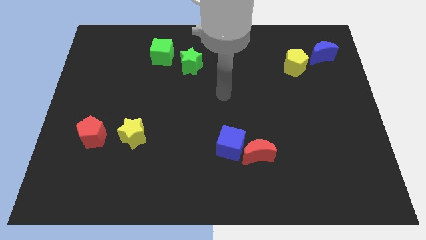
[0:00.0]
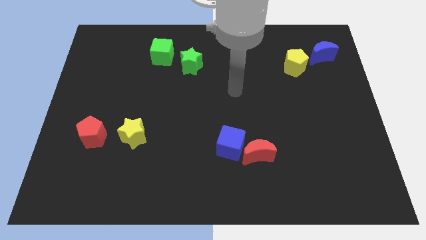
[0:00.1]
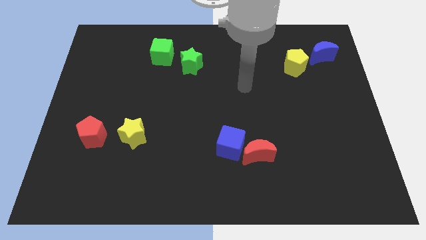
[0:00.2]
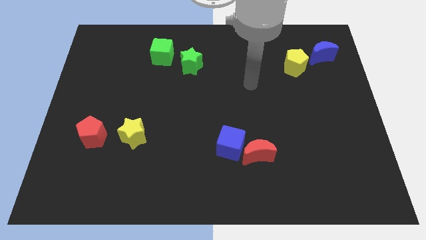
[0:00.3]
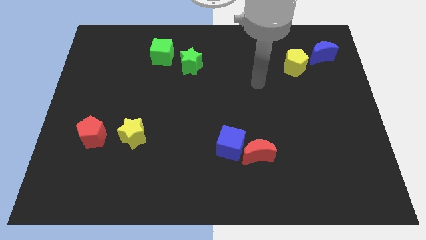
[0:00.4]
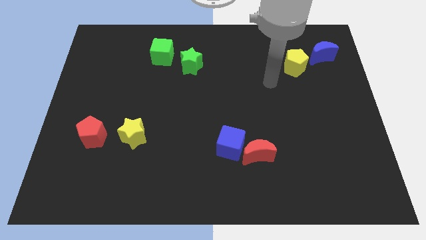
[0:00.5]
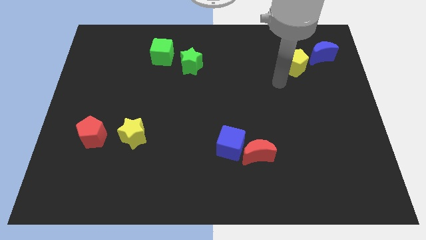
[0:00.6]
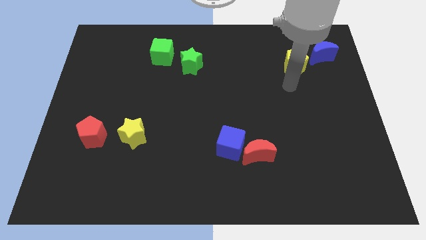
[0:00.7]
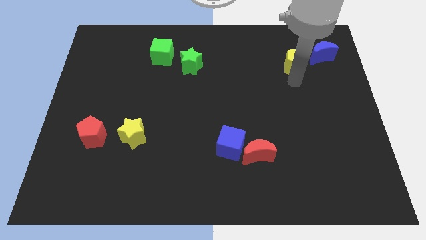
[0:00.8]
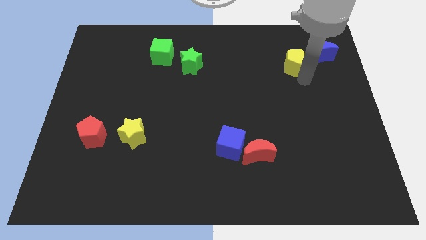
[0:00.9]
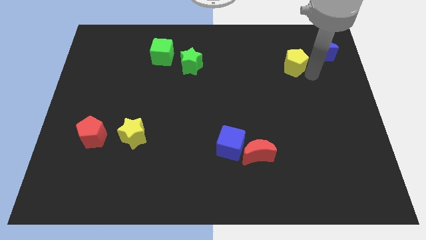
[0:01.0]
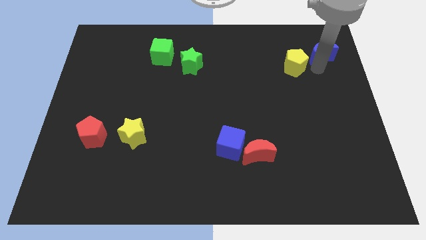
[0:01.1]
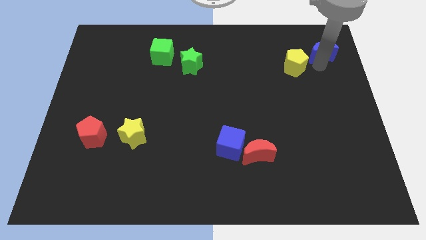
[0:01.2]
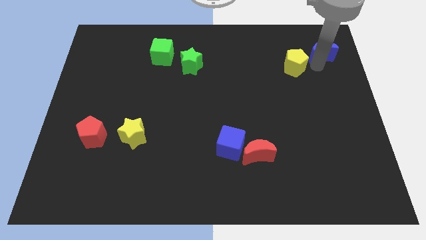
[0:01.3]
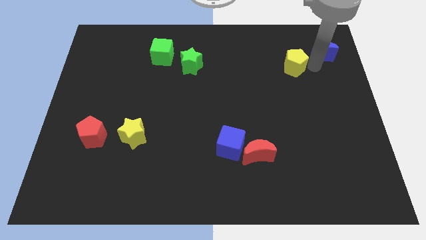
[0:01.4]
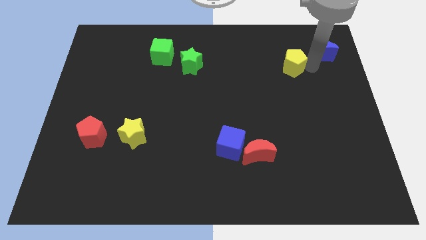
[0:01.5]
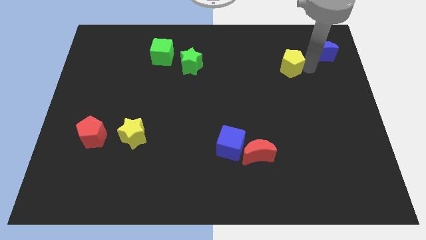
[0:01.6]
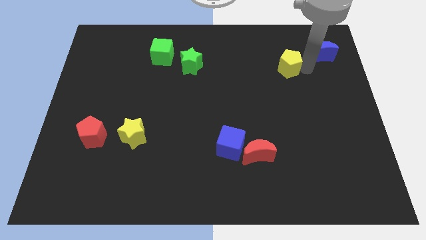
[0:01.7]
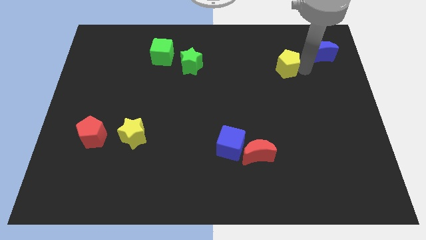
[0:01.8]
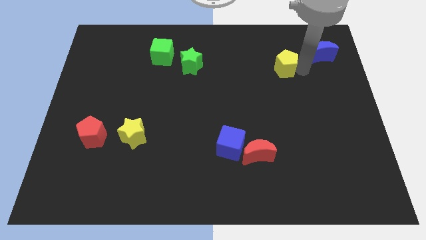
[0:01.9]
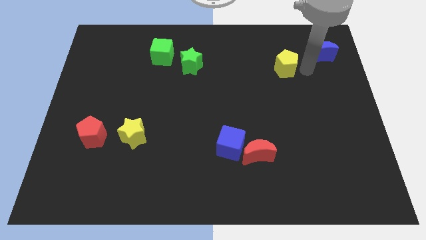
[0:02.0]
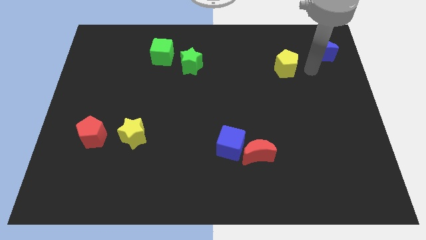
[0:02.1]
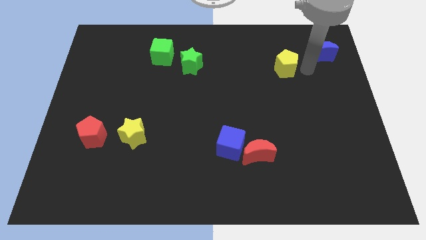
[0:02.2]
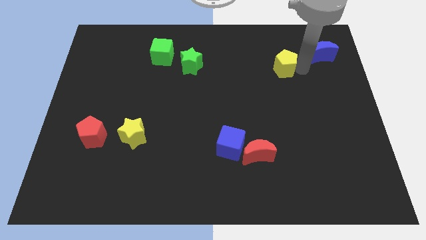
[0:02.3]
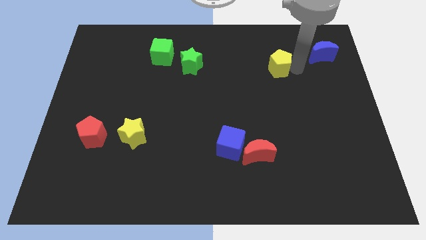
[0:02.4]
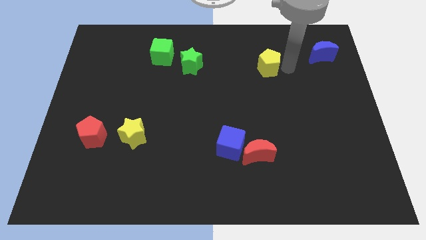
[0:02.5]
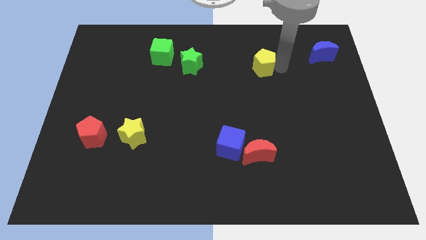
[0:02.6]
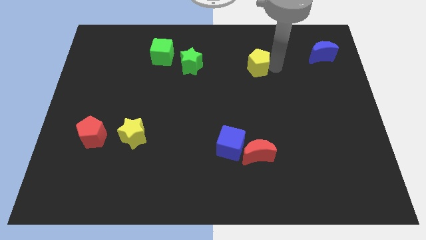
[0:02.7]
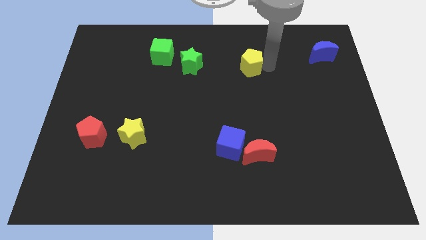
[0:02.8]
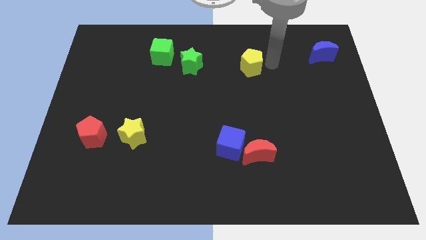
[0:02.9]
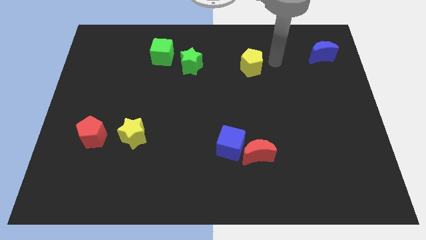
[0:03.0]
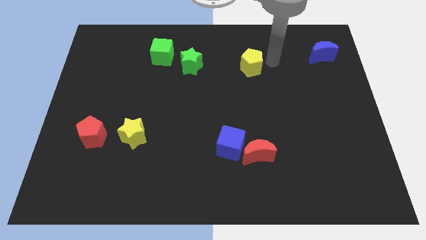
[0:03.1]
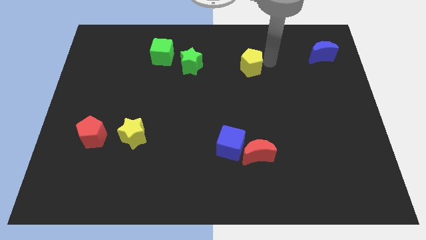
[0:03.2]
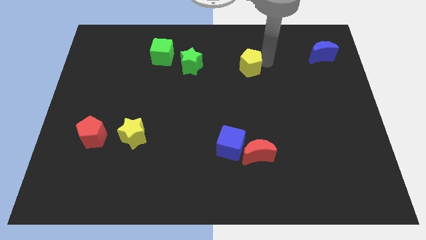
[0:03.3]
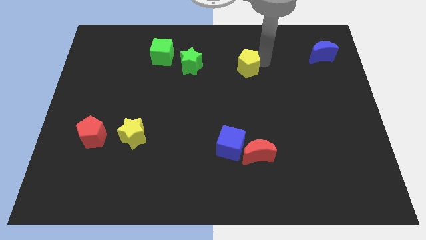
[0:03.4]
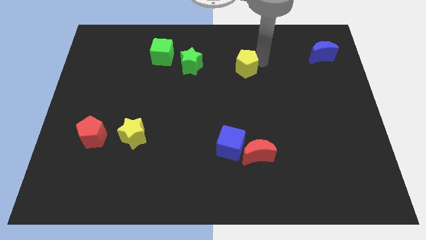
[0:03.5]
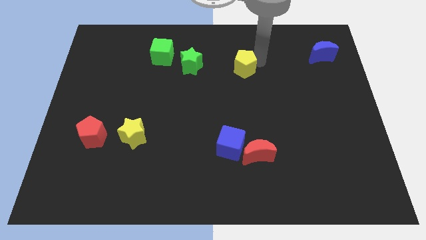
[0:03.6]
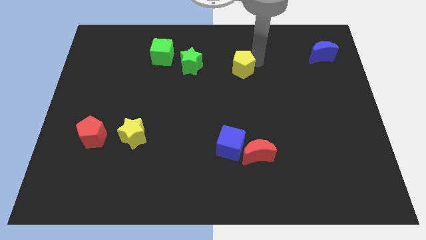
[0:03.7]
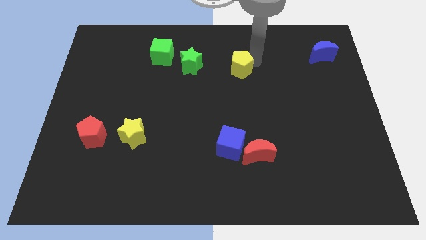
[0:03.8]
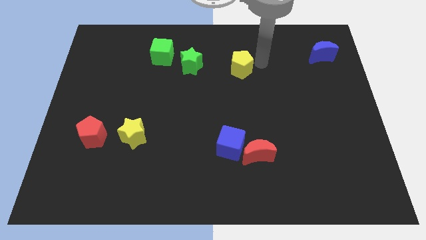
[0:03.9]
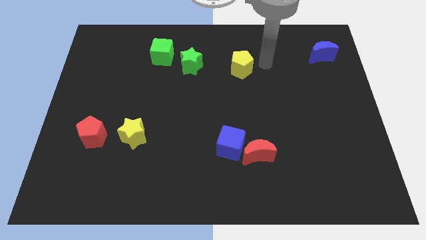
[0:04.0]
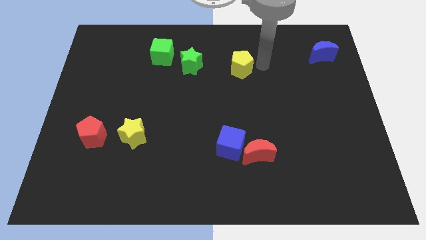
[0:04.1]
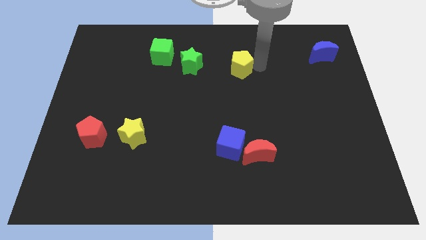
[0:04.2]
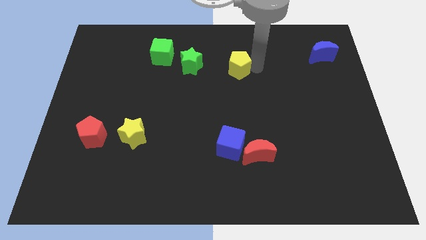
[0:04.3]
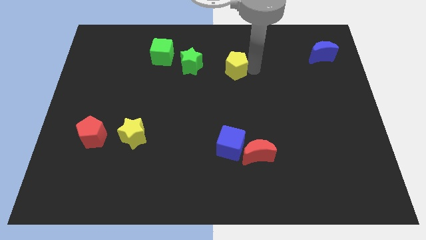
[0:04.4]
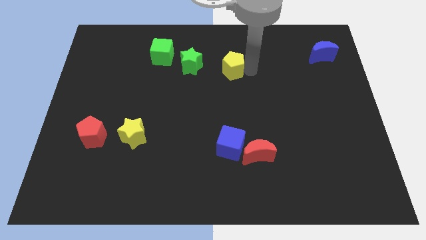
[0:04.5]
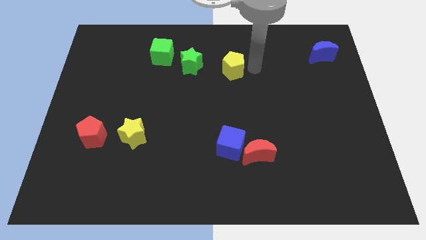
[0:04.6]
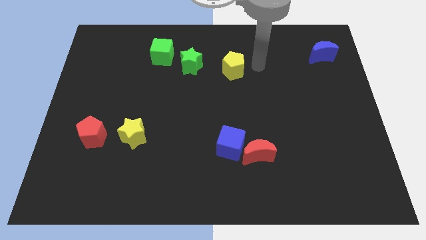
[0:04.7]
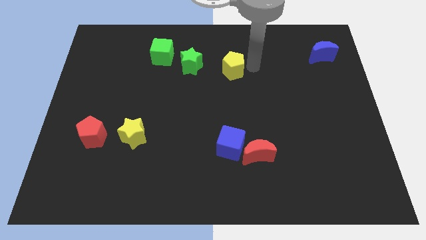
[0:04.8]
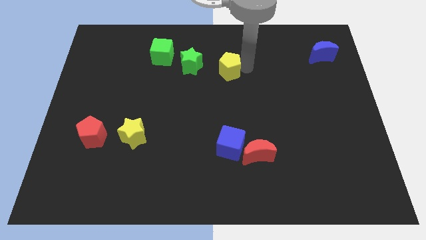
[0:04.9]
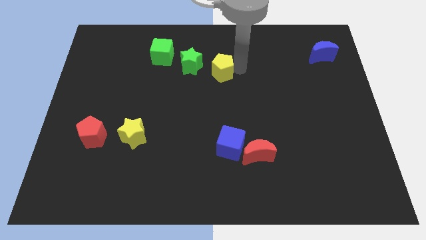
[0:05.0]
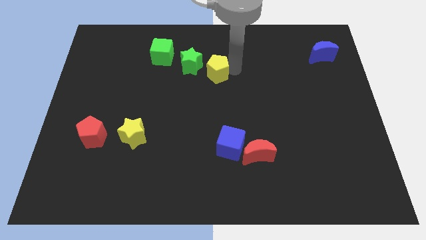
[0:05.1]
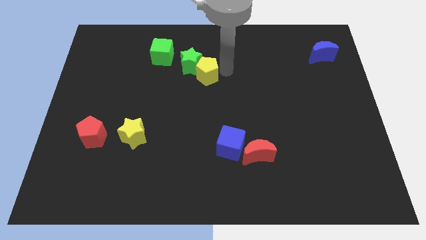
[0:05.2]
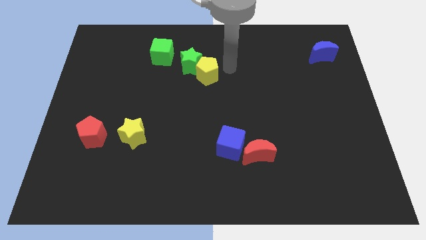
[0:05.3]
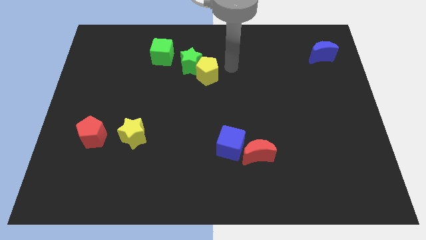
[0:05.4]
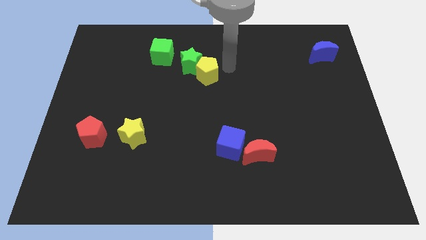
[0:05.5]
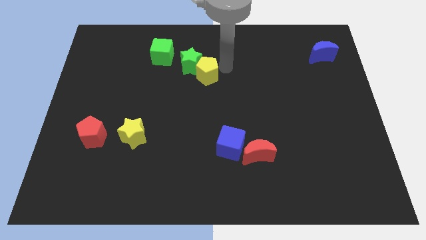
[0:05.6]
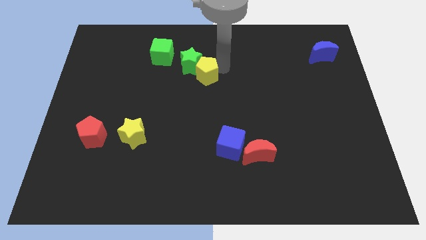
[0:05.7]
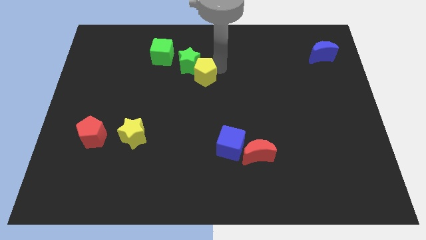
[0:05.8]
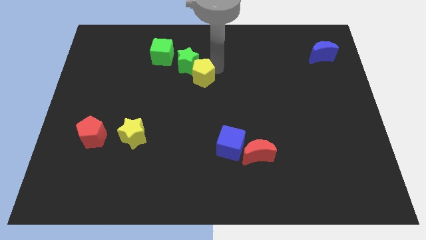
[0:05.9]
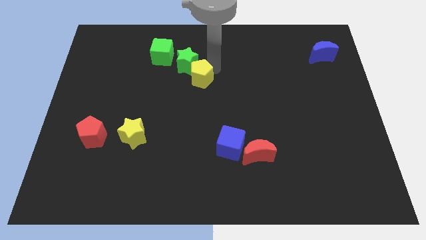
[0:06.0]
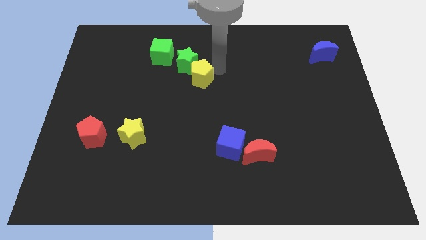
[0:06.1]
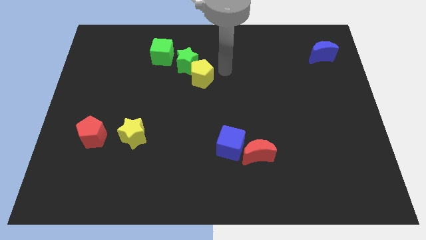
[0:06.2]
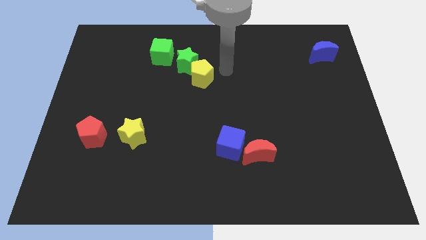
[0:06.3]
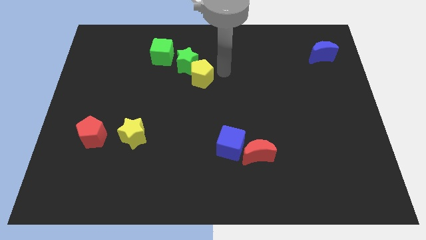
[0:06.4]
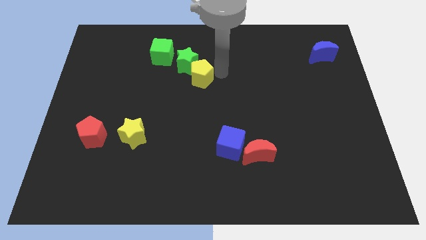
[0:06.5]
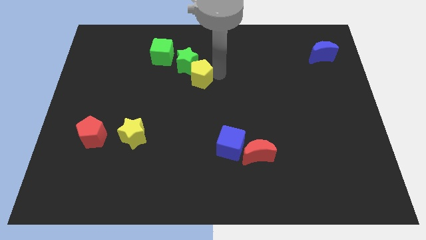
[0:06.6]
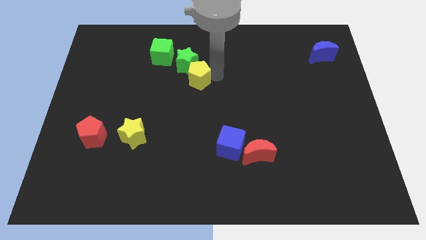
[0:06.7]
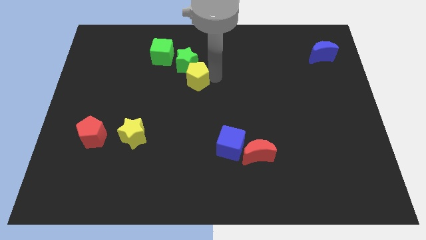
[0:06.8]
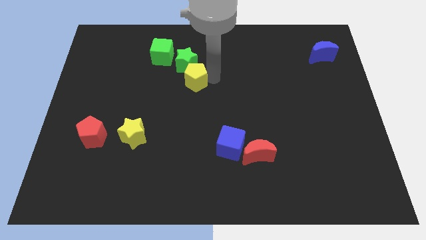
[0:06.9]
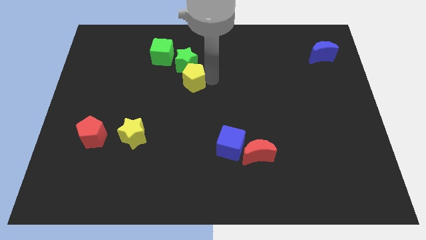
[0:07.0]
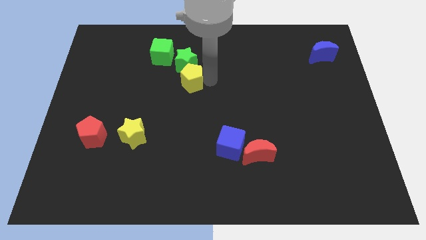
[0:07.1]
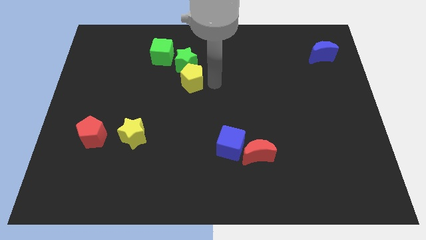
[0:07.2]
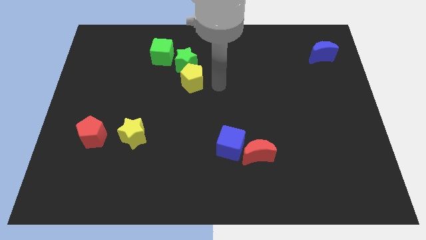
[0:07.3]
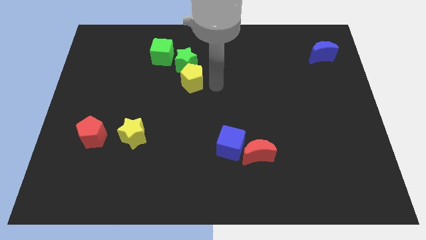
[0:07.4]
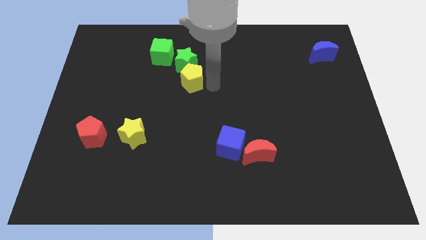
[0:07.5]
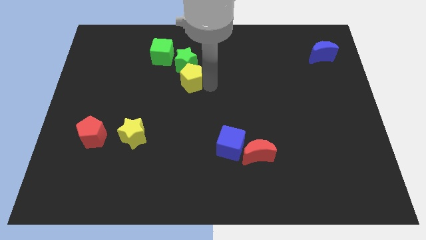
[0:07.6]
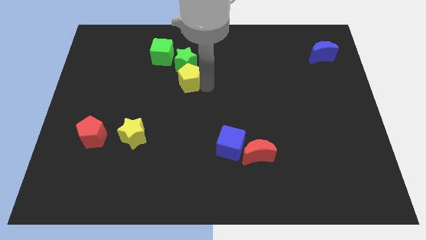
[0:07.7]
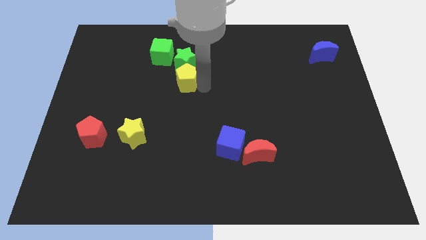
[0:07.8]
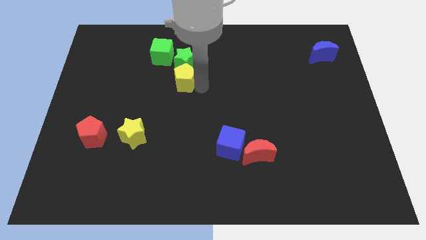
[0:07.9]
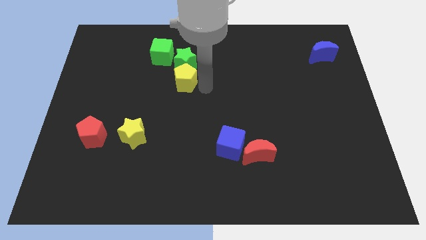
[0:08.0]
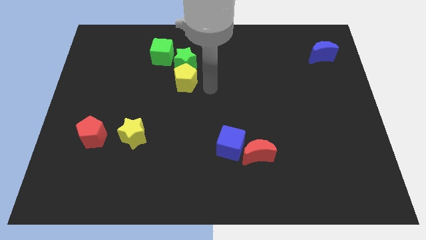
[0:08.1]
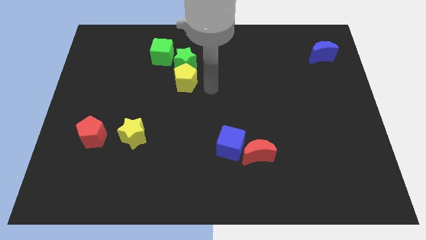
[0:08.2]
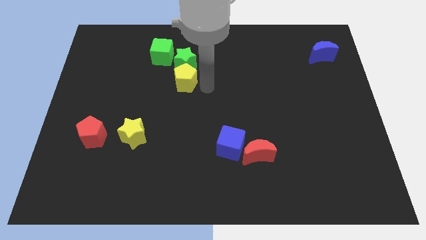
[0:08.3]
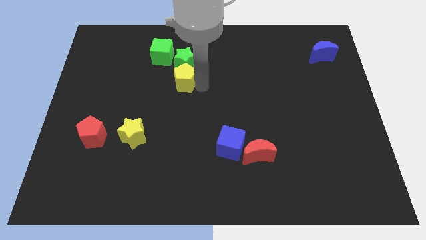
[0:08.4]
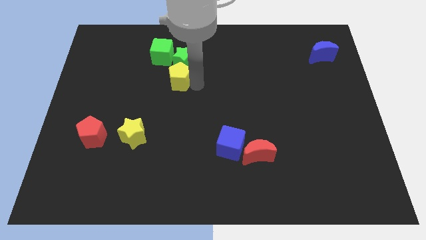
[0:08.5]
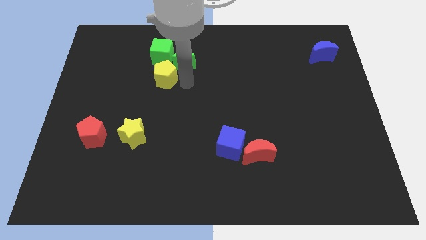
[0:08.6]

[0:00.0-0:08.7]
slide the yellow pentagon left of the green star
